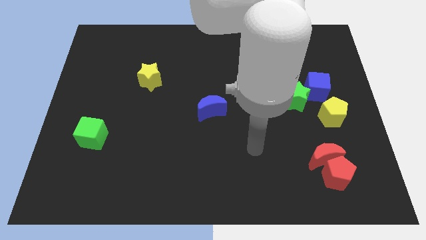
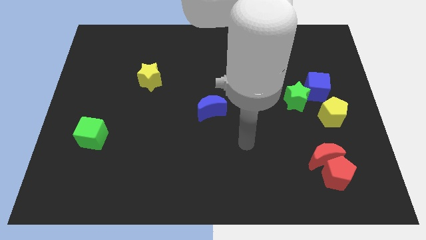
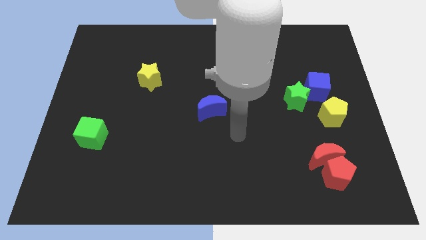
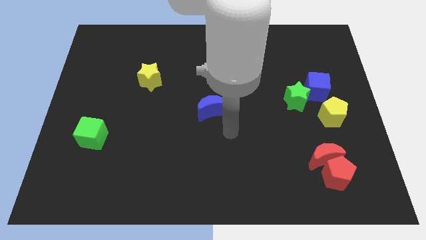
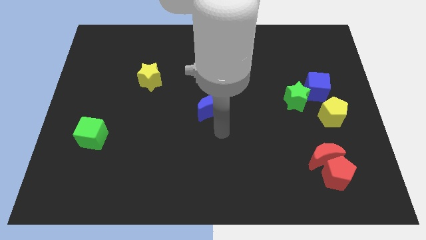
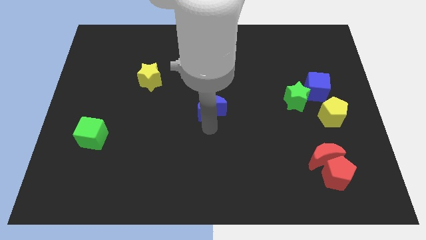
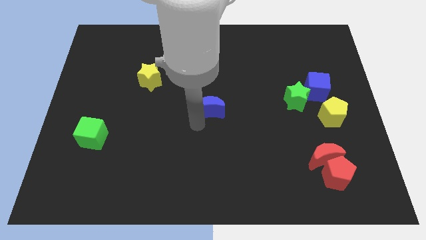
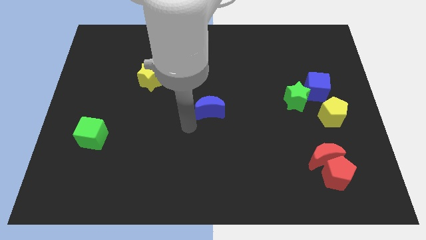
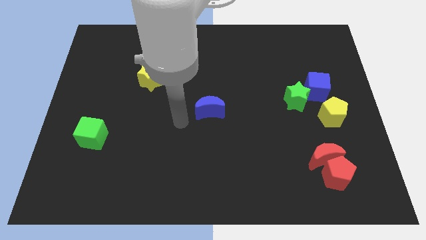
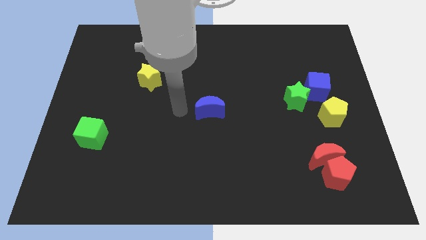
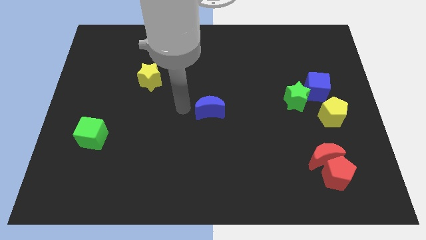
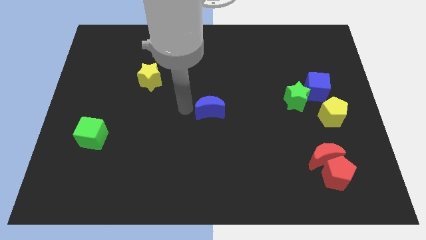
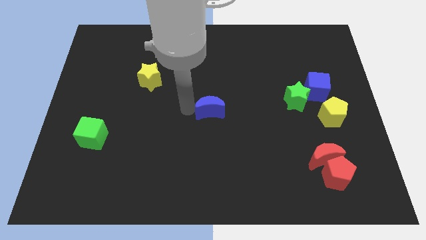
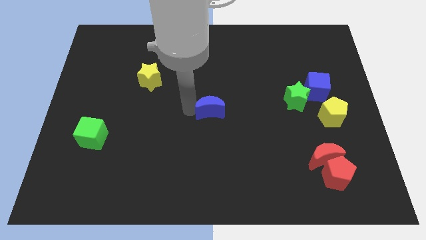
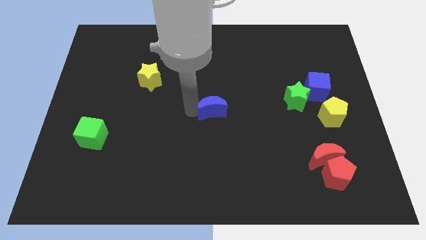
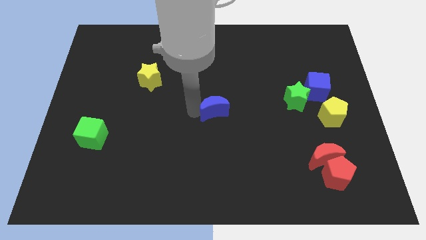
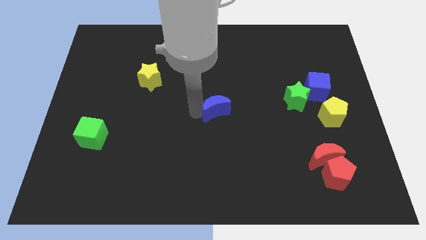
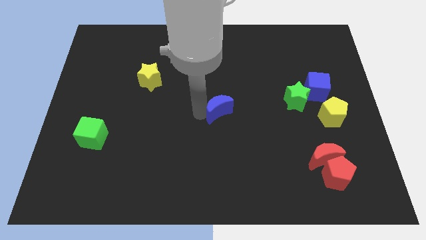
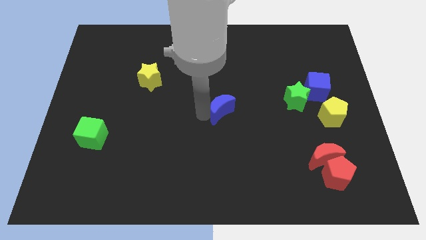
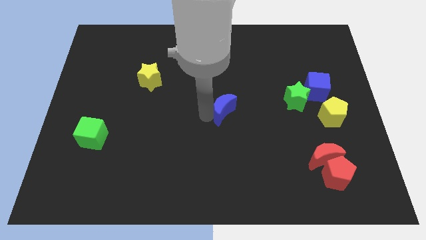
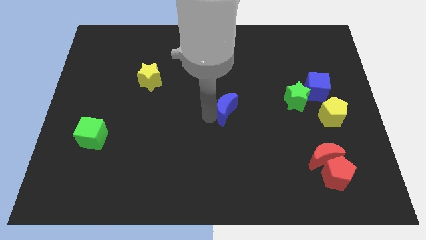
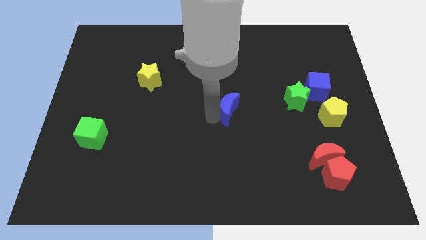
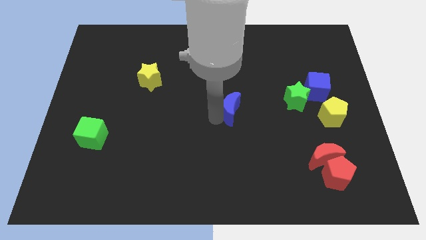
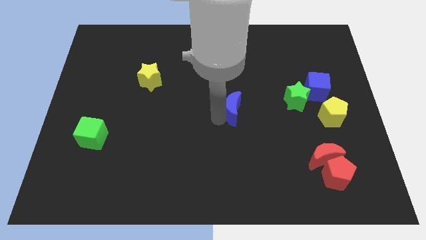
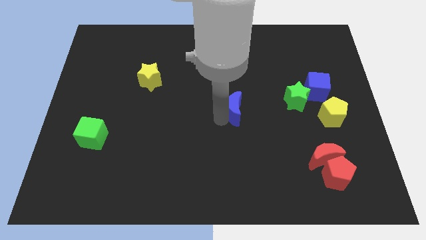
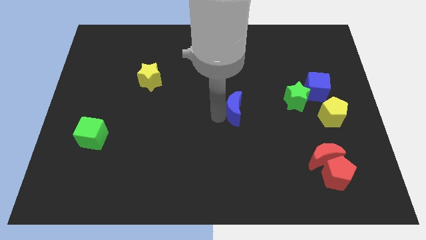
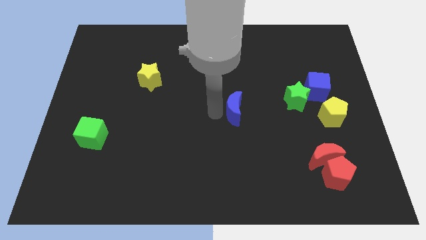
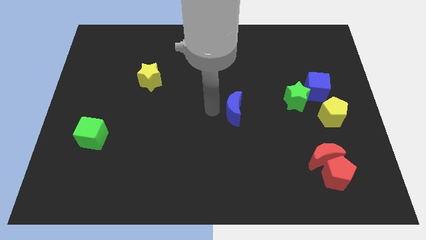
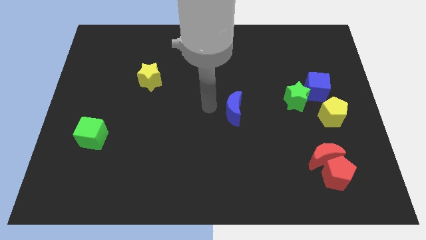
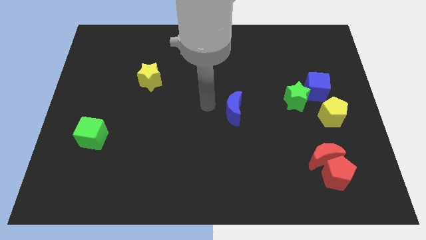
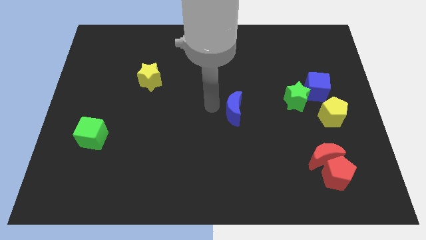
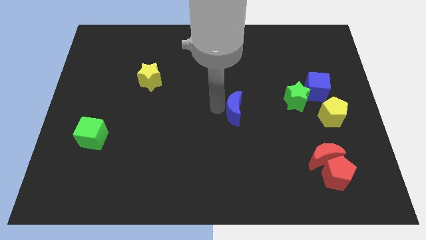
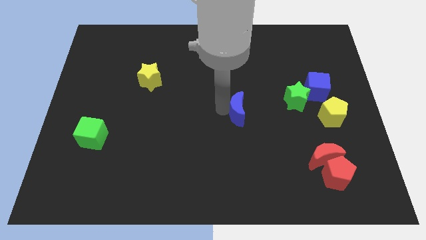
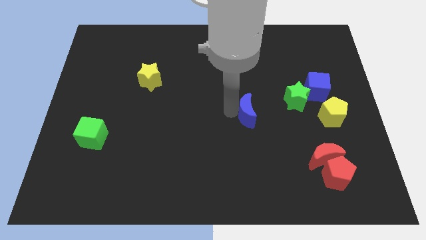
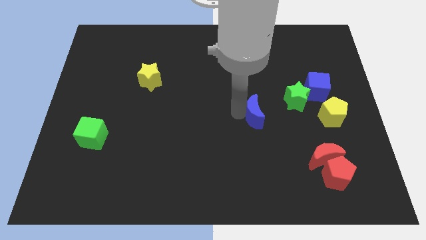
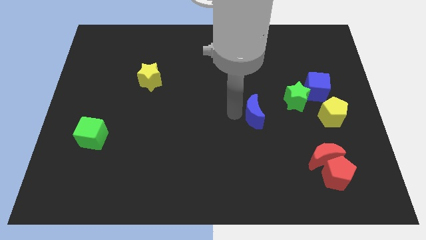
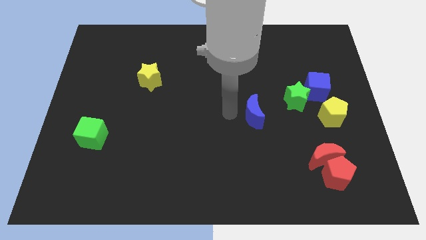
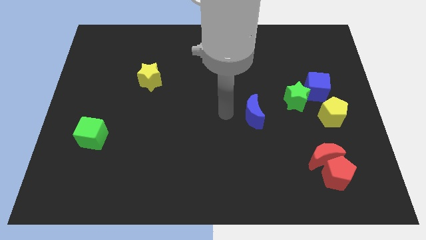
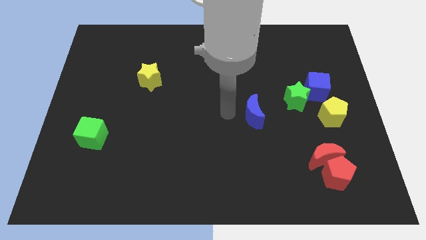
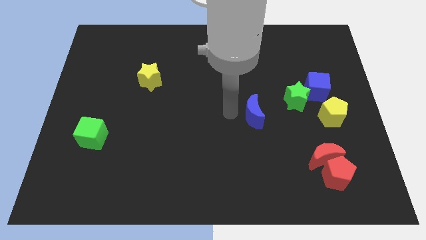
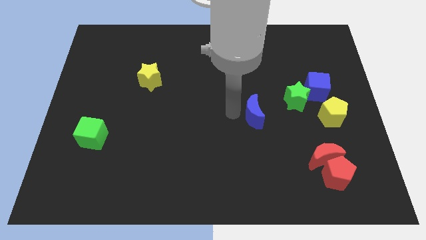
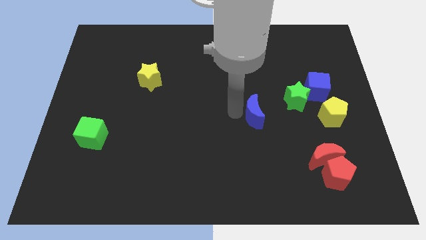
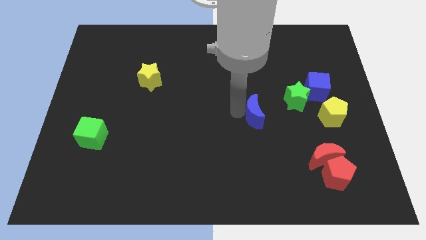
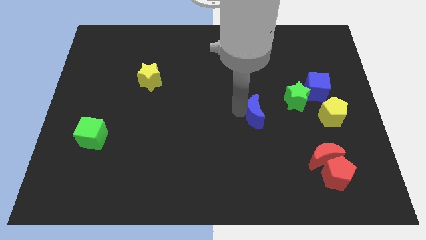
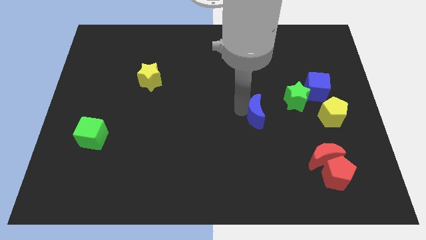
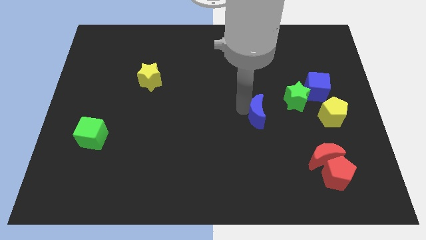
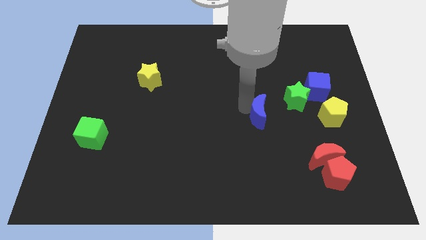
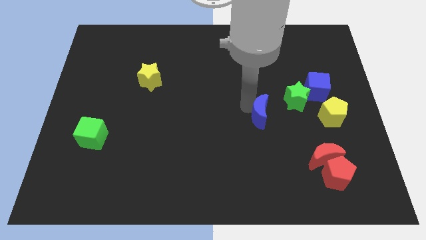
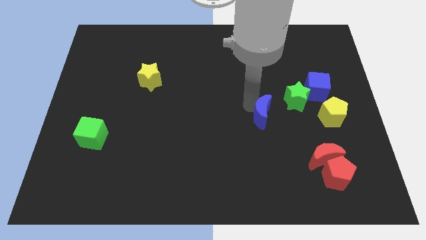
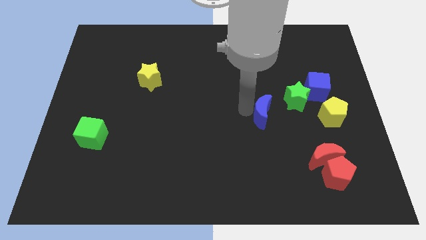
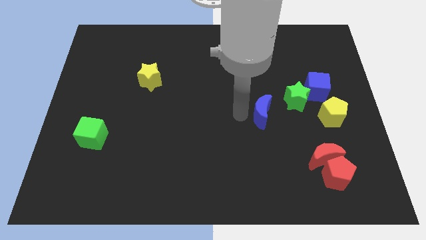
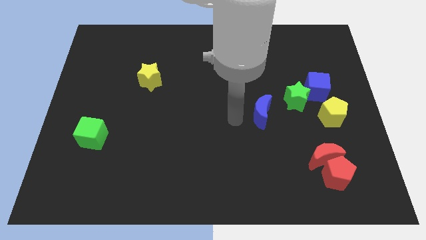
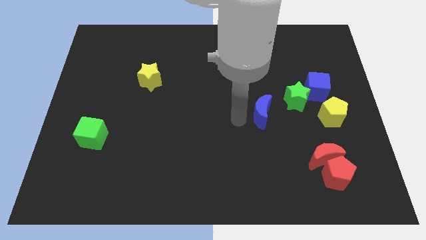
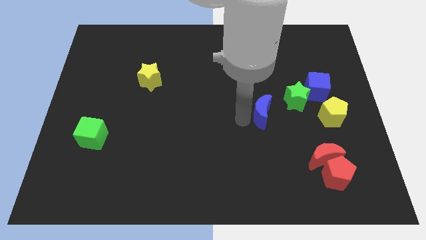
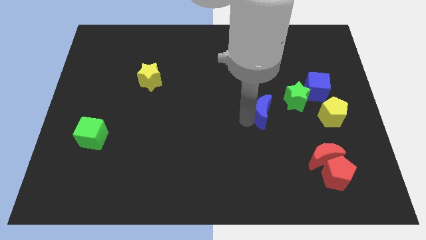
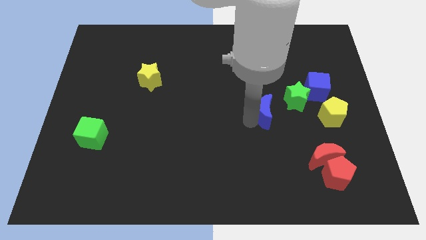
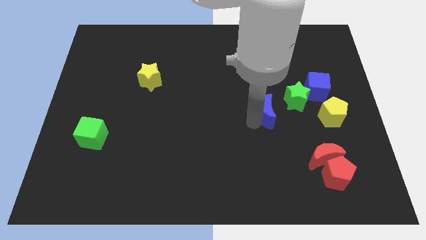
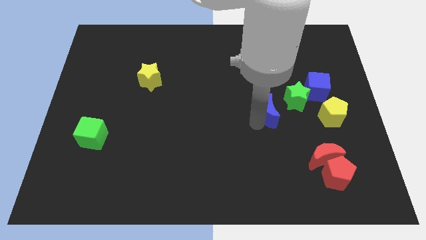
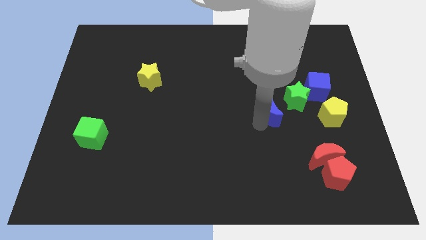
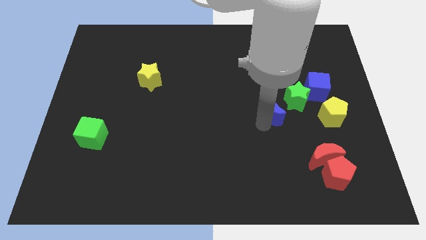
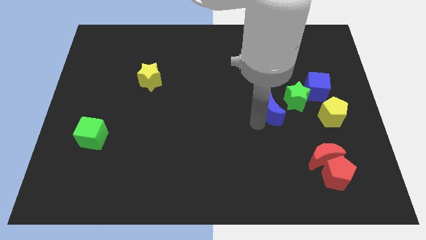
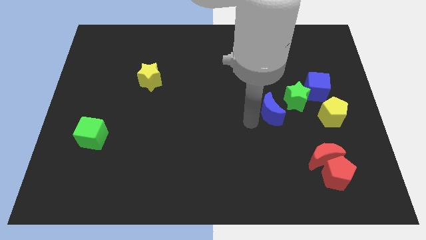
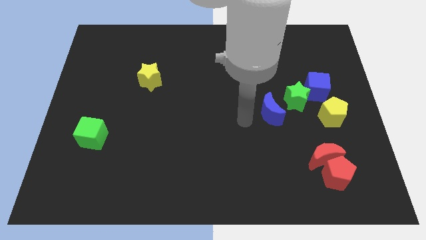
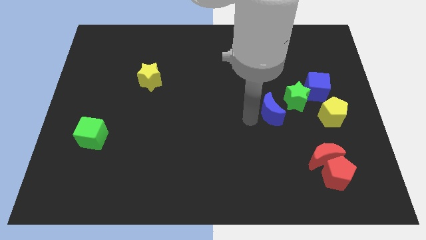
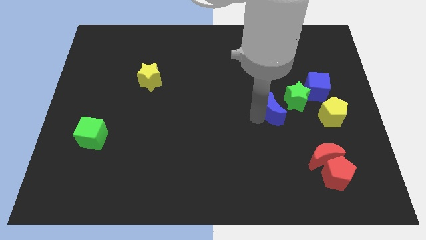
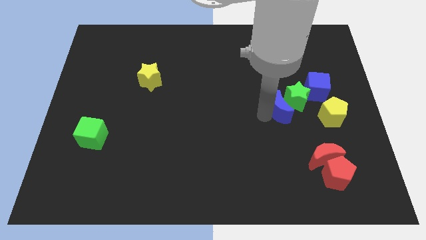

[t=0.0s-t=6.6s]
push the blue moon to the bottom left of the blue cube
